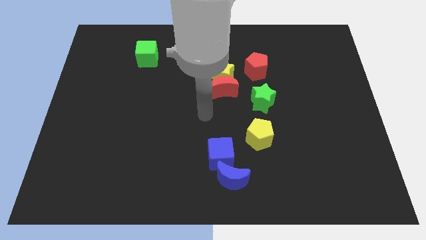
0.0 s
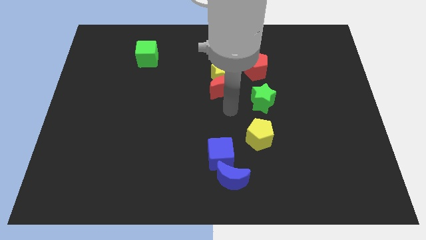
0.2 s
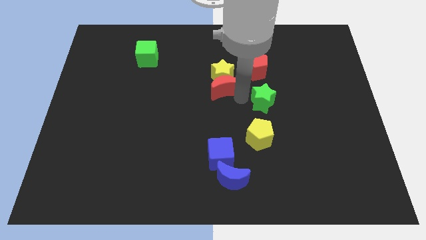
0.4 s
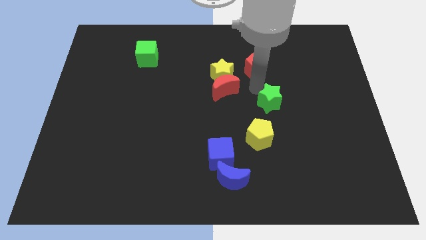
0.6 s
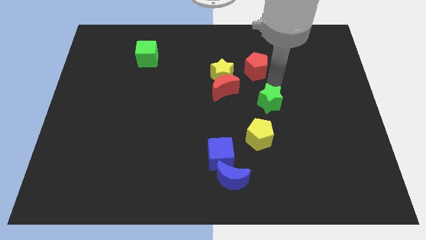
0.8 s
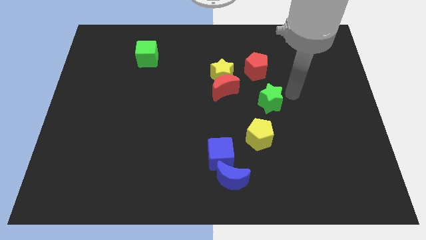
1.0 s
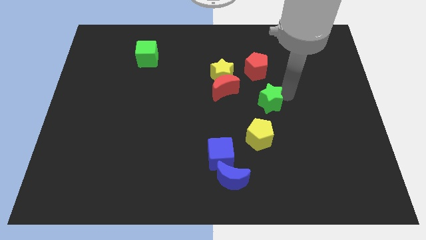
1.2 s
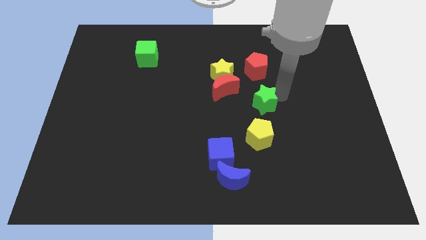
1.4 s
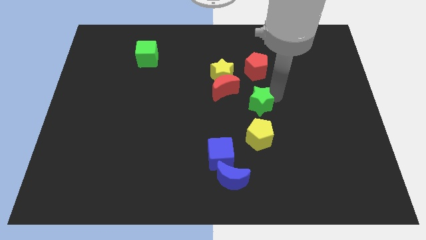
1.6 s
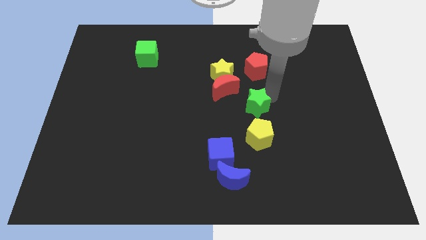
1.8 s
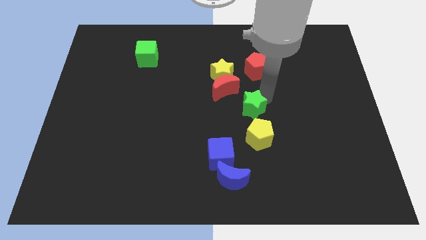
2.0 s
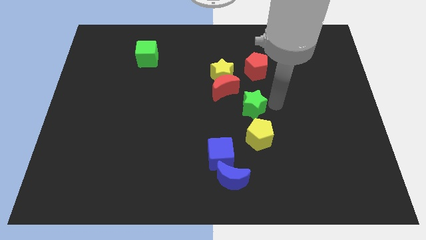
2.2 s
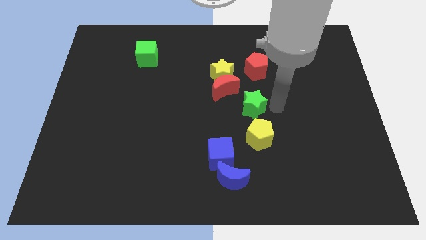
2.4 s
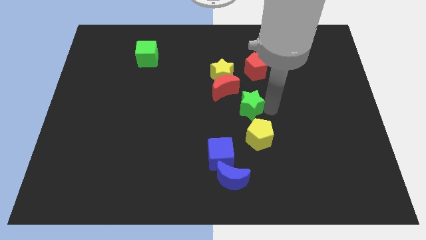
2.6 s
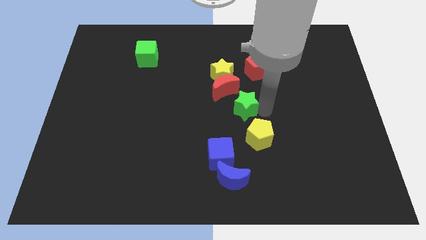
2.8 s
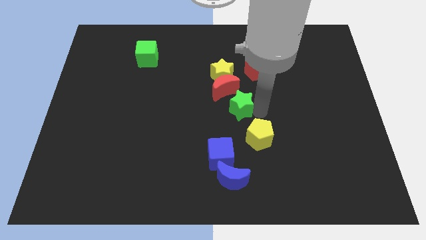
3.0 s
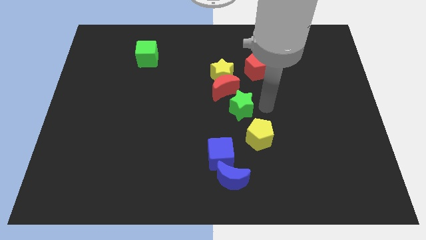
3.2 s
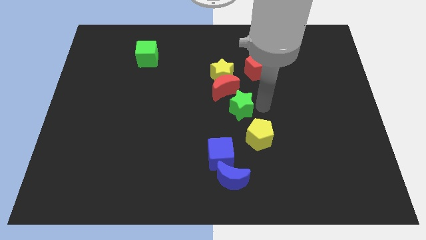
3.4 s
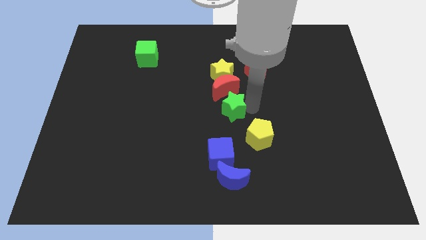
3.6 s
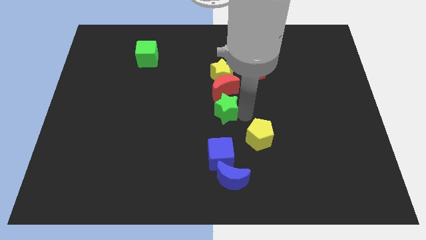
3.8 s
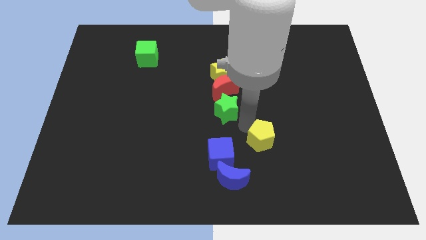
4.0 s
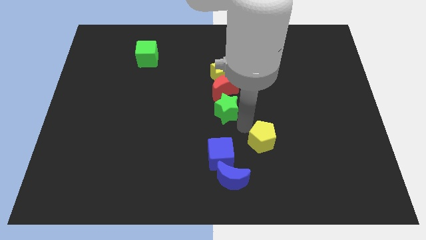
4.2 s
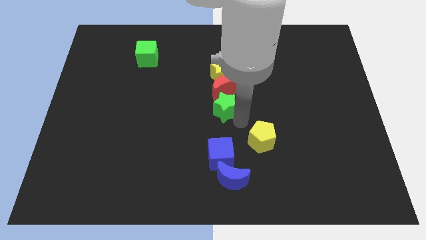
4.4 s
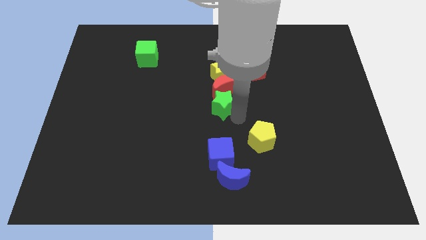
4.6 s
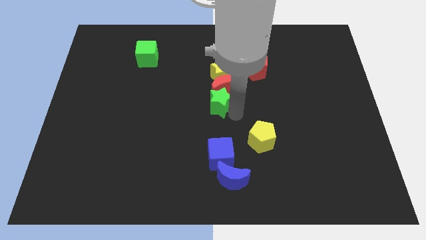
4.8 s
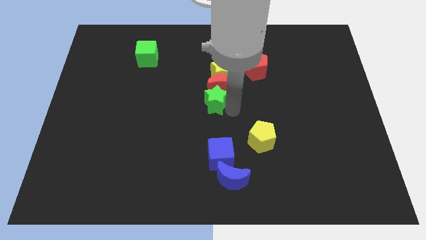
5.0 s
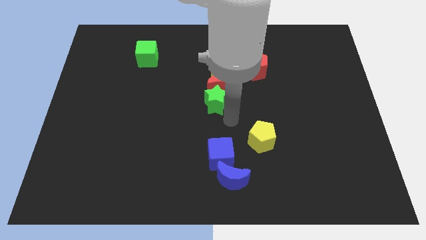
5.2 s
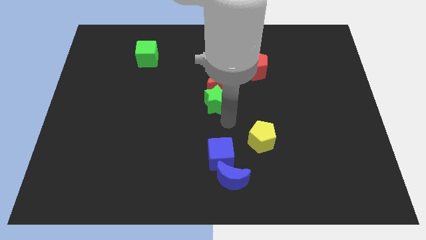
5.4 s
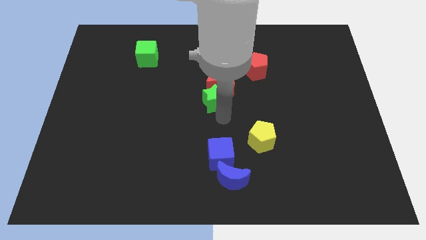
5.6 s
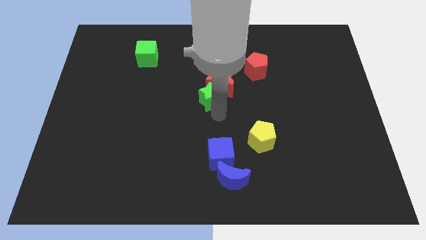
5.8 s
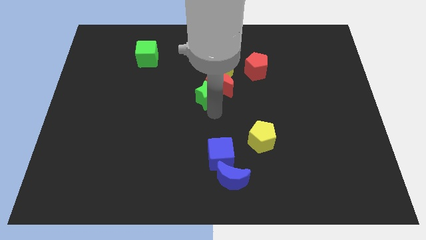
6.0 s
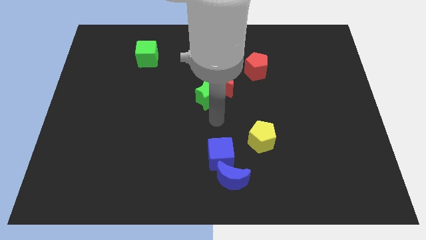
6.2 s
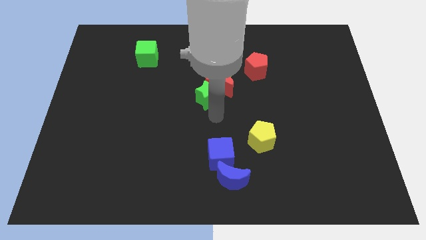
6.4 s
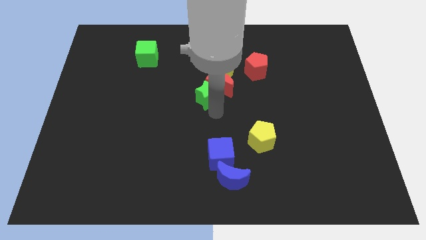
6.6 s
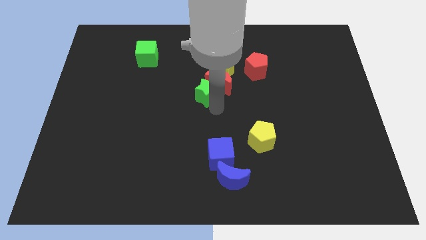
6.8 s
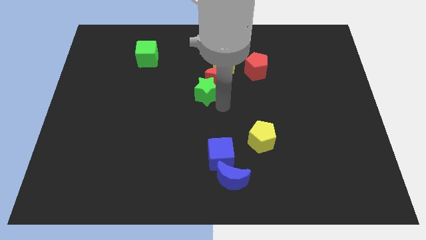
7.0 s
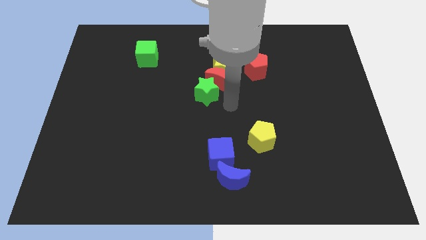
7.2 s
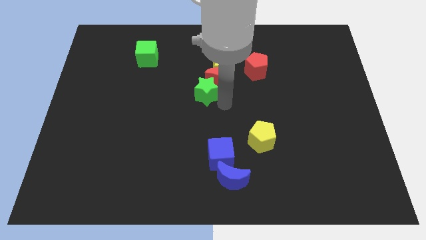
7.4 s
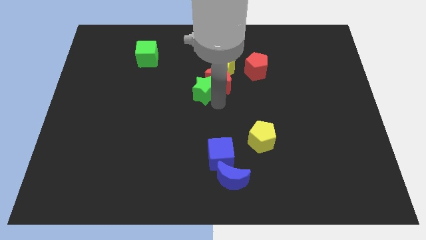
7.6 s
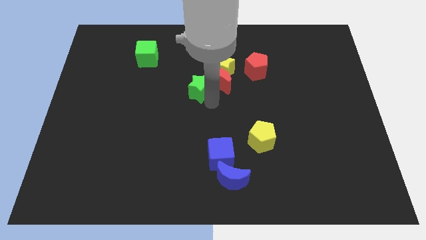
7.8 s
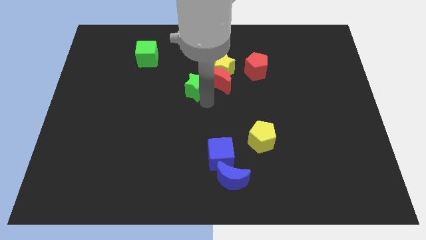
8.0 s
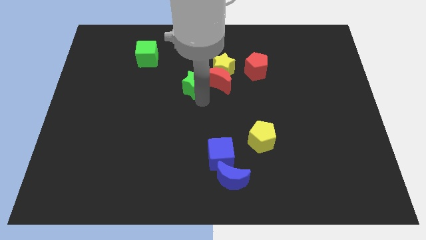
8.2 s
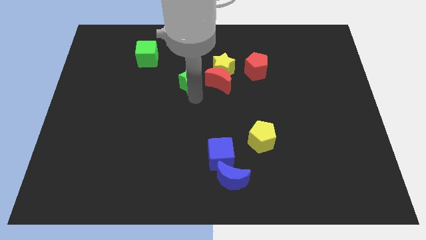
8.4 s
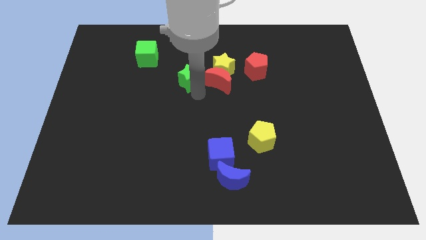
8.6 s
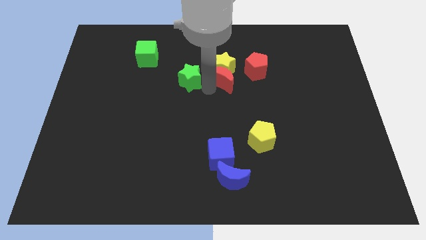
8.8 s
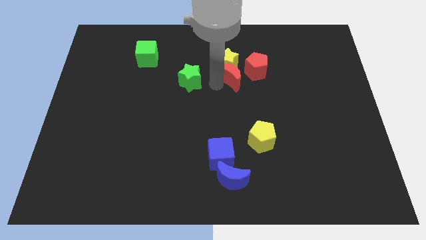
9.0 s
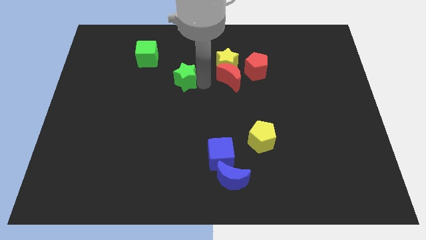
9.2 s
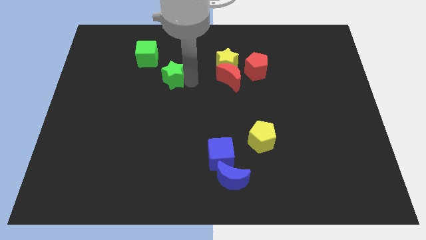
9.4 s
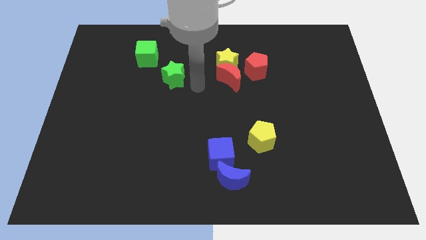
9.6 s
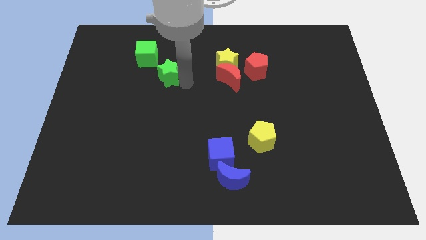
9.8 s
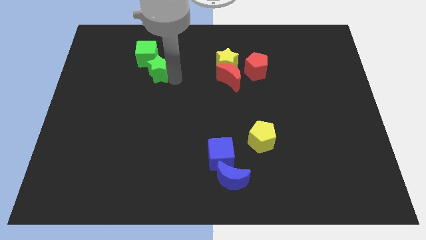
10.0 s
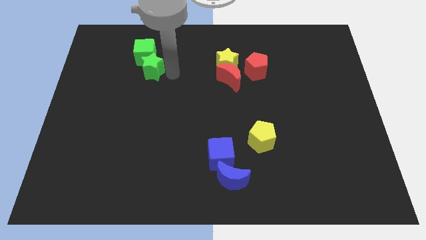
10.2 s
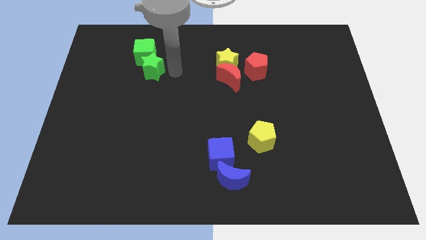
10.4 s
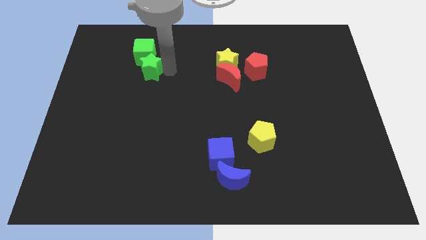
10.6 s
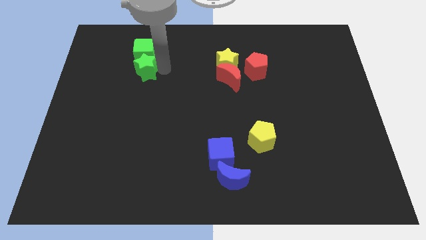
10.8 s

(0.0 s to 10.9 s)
put the green star to the bottom left side of the green cube

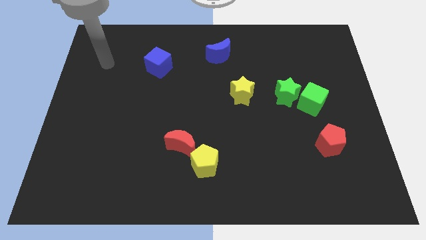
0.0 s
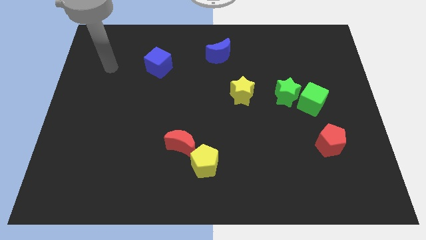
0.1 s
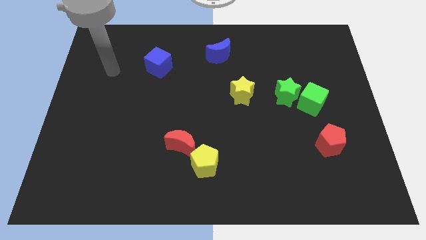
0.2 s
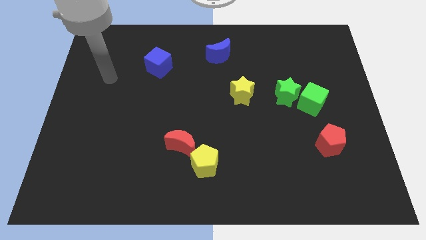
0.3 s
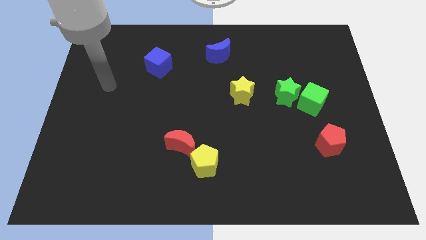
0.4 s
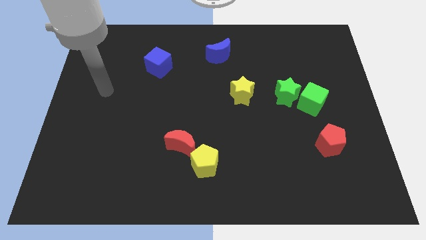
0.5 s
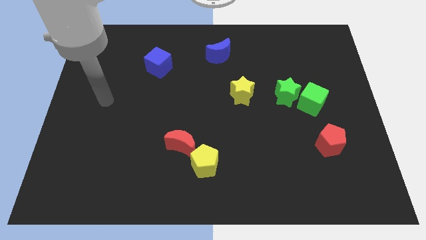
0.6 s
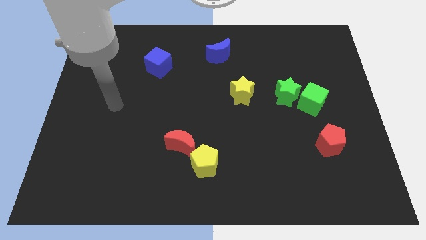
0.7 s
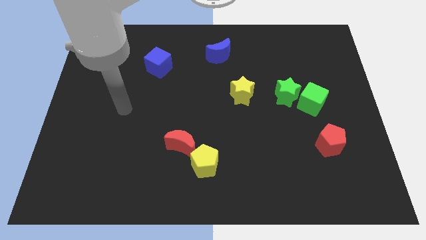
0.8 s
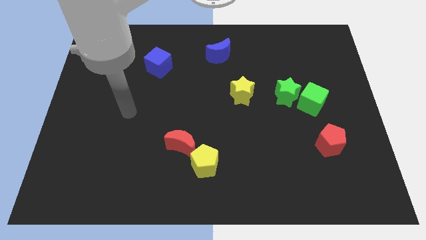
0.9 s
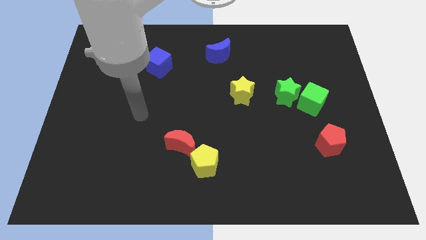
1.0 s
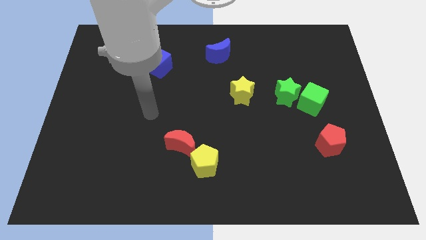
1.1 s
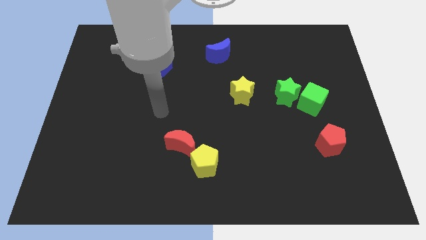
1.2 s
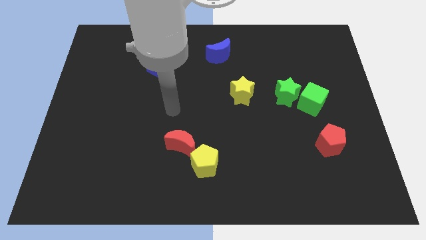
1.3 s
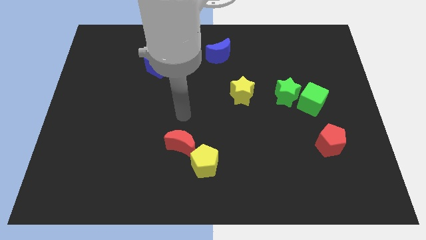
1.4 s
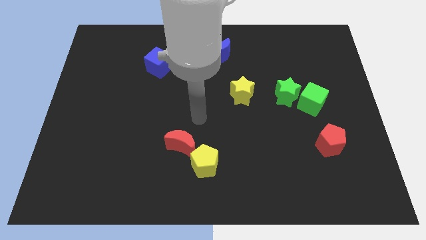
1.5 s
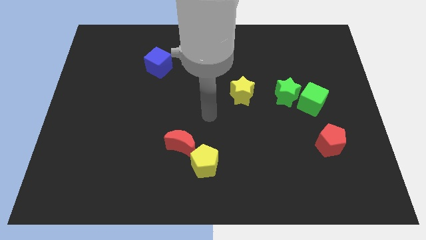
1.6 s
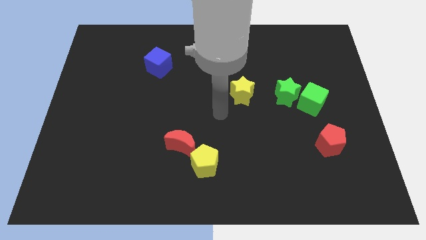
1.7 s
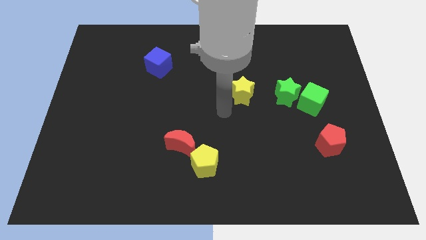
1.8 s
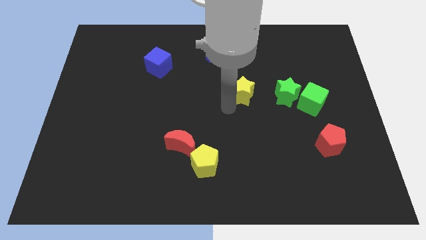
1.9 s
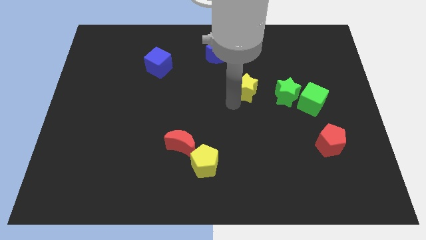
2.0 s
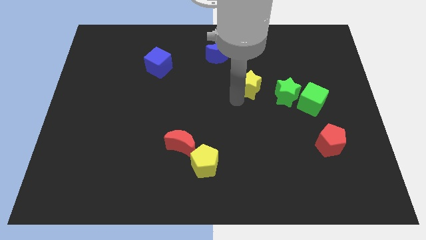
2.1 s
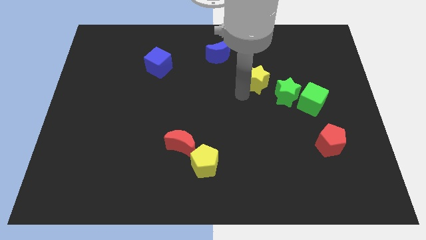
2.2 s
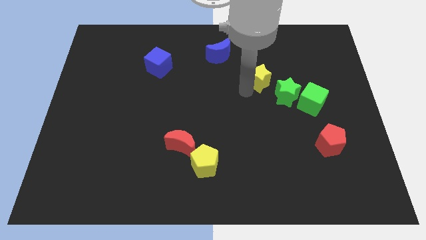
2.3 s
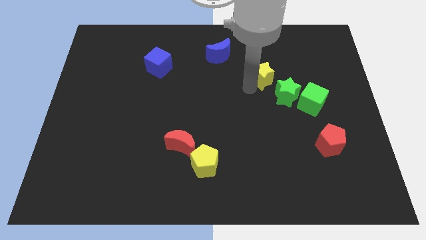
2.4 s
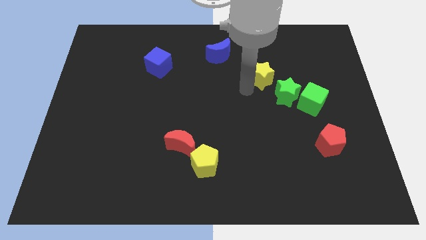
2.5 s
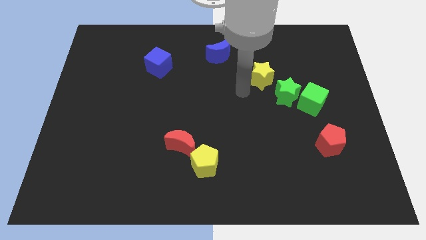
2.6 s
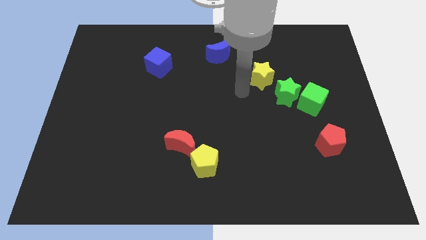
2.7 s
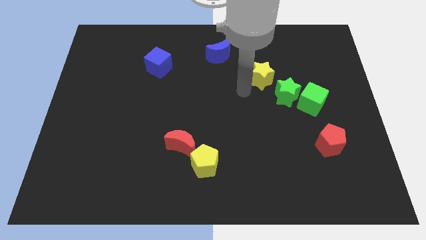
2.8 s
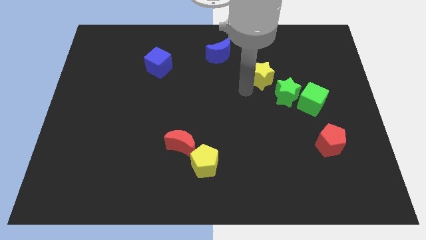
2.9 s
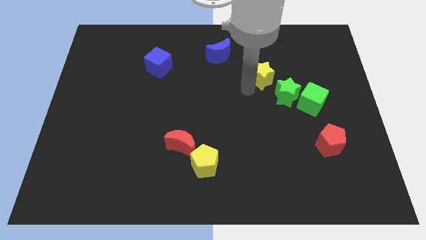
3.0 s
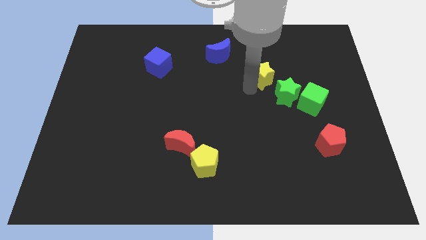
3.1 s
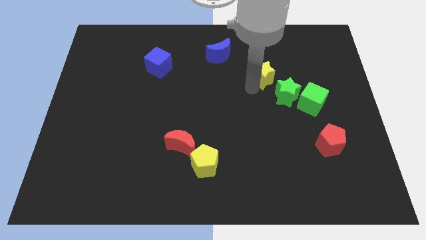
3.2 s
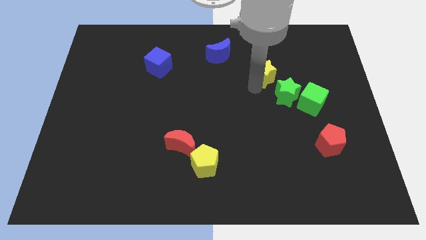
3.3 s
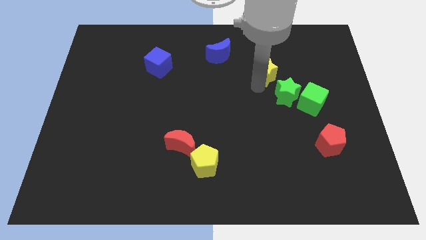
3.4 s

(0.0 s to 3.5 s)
slide the yellow star to the top side of the green star
